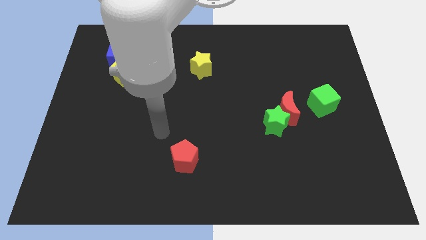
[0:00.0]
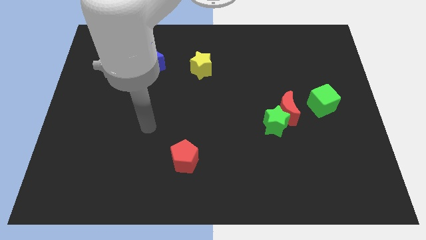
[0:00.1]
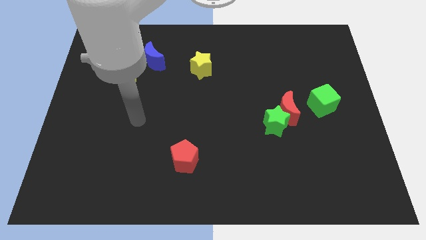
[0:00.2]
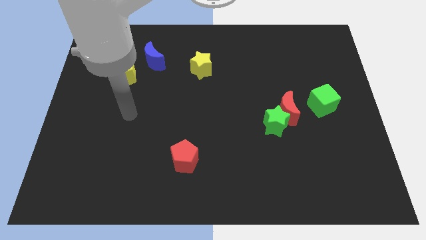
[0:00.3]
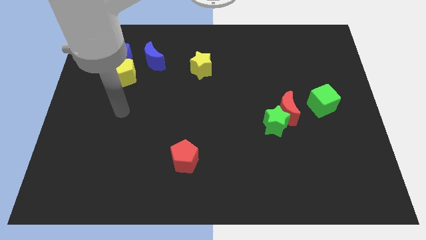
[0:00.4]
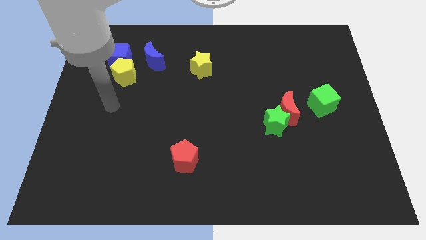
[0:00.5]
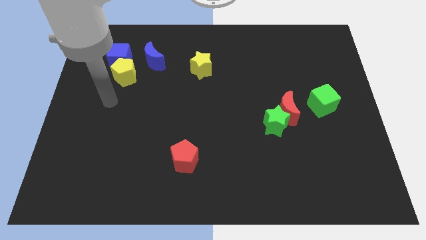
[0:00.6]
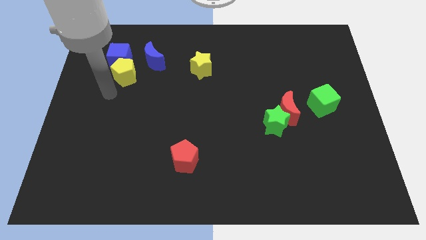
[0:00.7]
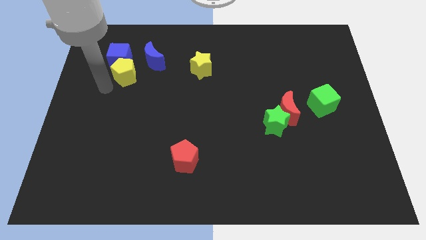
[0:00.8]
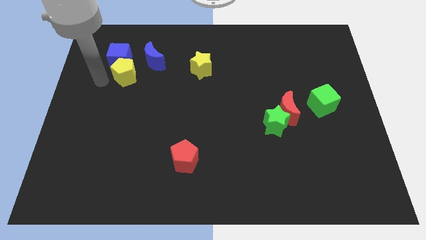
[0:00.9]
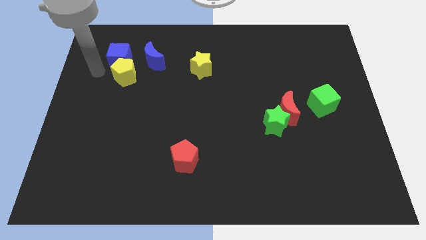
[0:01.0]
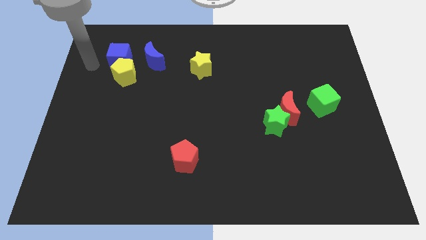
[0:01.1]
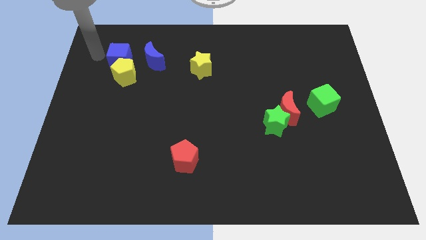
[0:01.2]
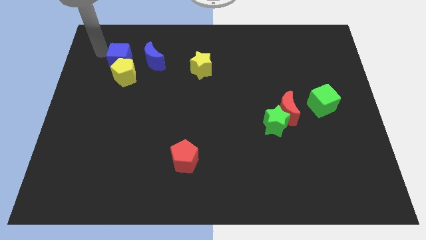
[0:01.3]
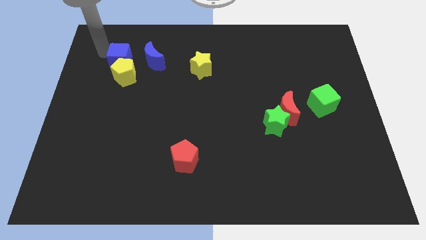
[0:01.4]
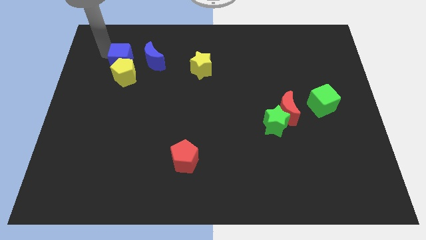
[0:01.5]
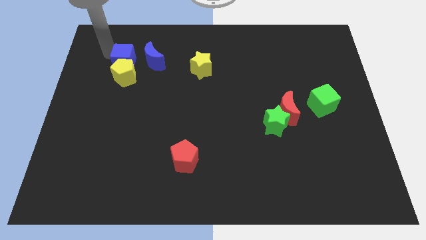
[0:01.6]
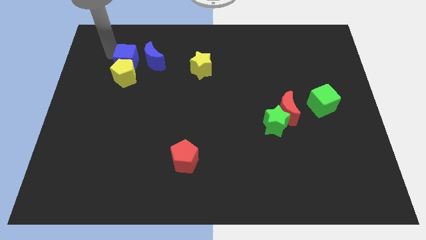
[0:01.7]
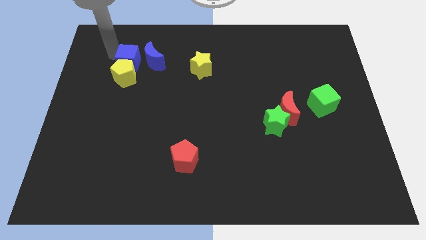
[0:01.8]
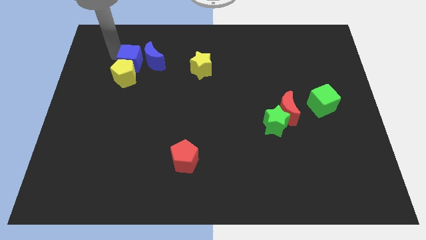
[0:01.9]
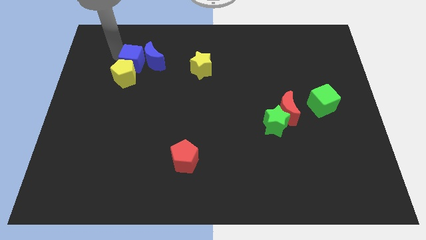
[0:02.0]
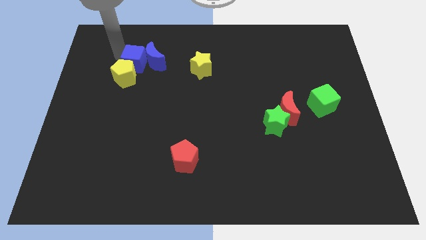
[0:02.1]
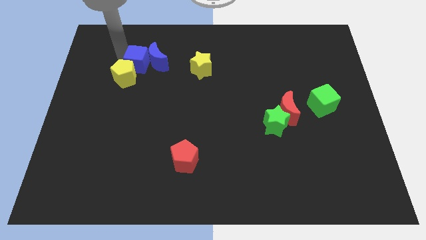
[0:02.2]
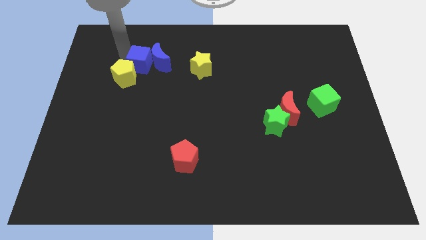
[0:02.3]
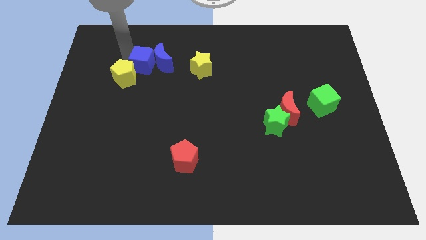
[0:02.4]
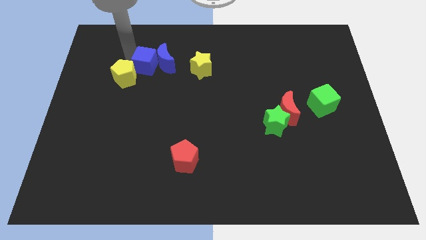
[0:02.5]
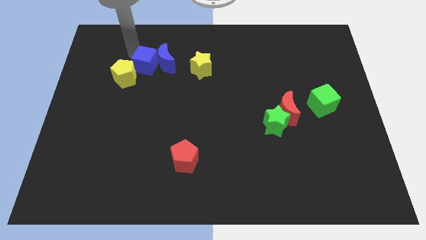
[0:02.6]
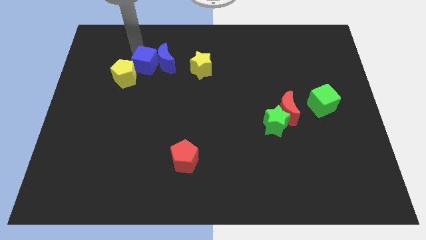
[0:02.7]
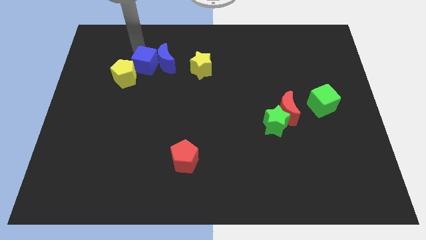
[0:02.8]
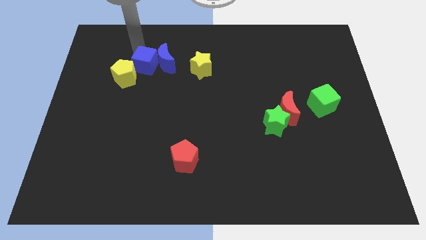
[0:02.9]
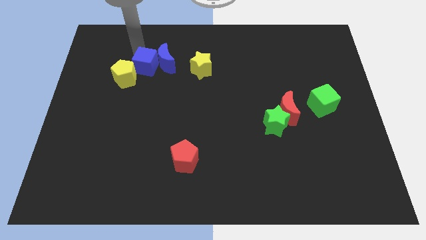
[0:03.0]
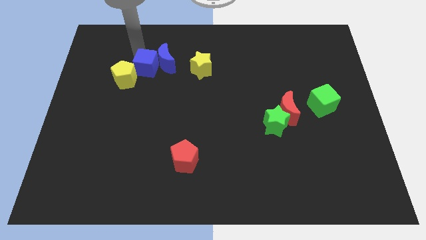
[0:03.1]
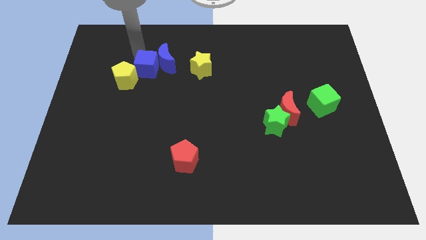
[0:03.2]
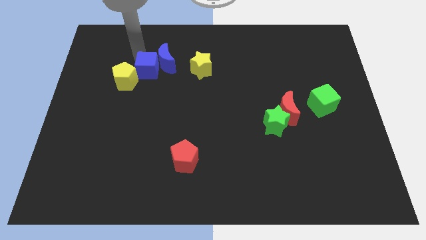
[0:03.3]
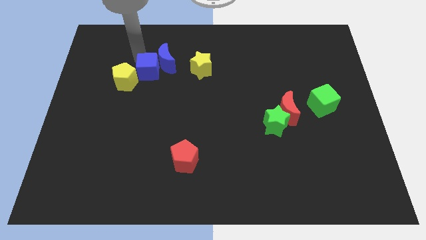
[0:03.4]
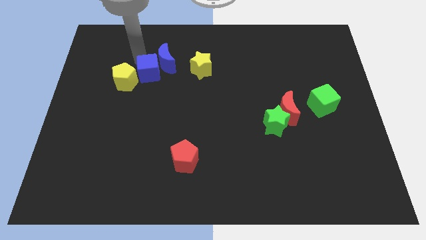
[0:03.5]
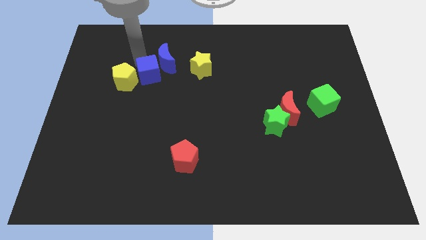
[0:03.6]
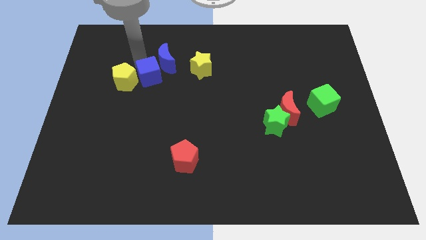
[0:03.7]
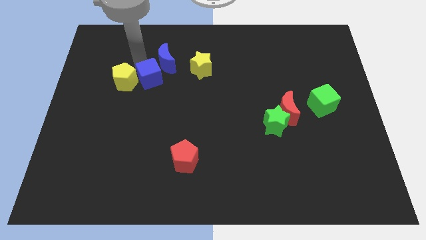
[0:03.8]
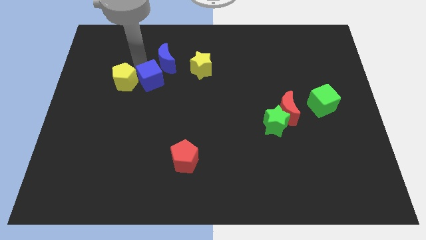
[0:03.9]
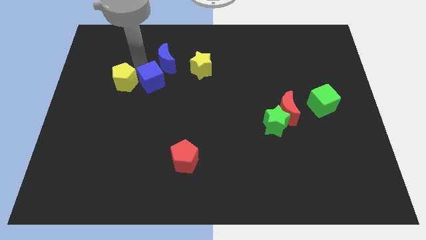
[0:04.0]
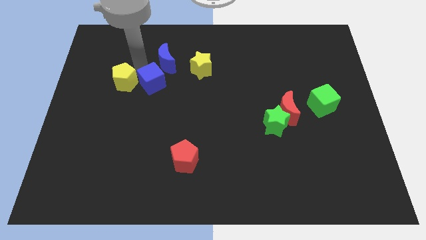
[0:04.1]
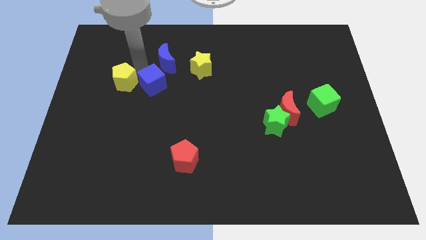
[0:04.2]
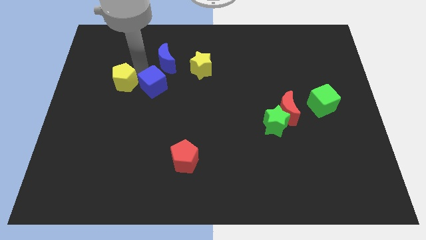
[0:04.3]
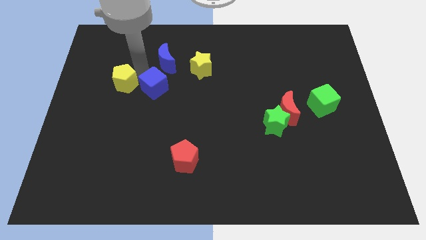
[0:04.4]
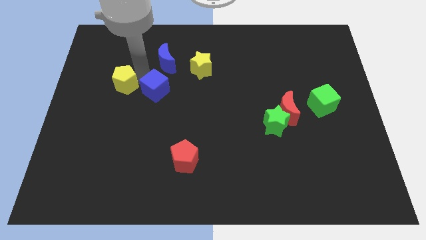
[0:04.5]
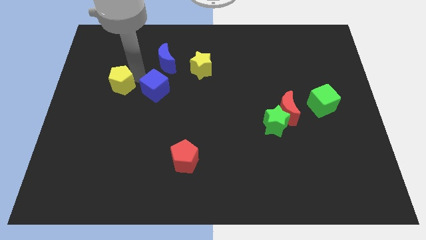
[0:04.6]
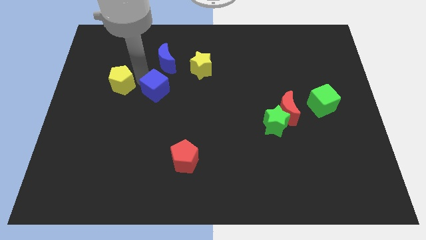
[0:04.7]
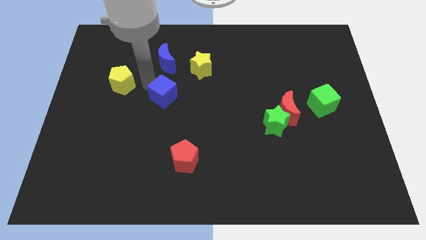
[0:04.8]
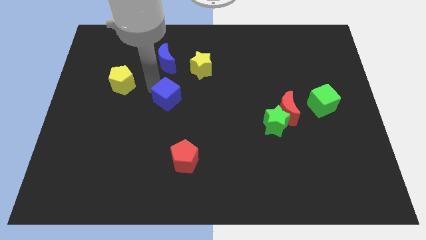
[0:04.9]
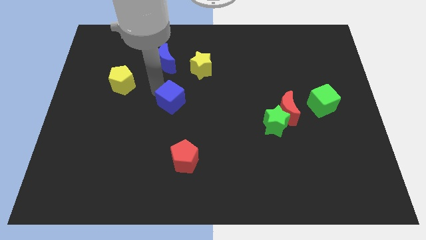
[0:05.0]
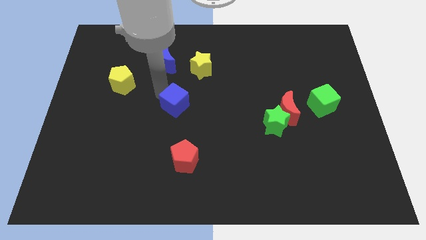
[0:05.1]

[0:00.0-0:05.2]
slide the blue cube to the top of the red pentagon

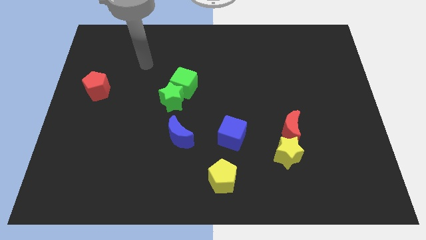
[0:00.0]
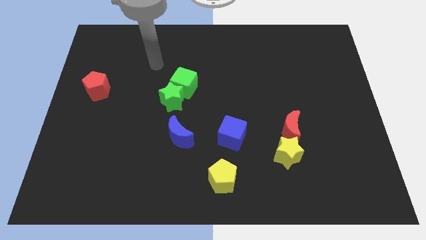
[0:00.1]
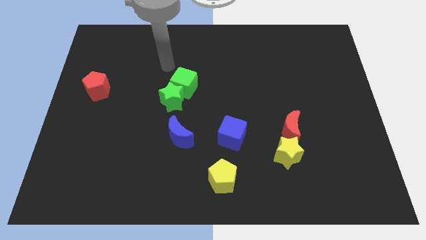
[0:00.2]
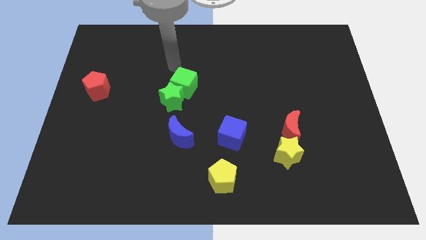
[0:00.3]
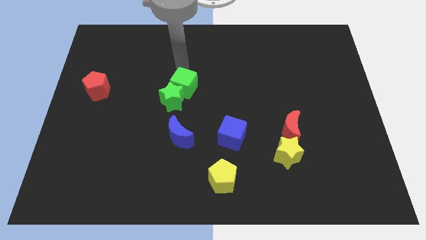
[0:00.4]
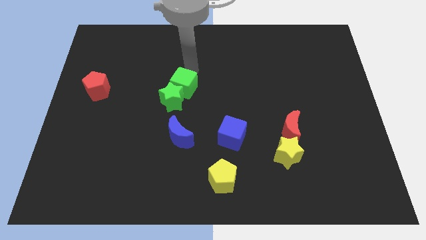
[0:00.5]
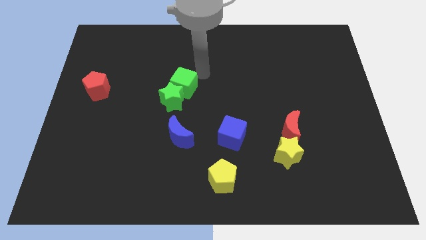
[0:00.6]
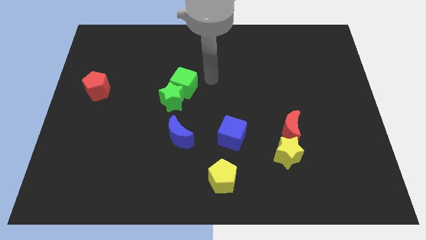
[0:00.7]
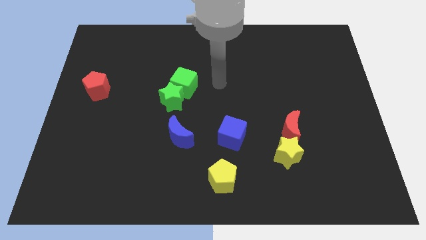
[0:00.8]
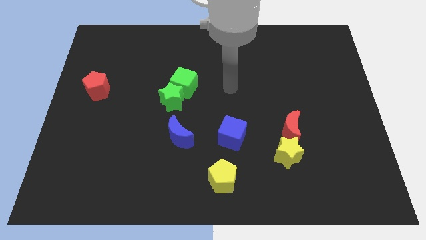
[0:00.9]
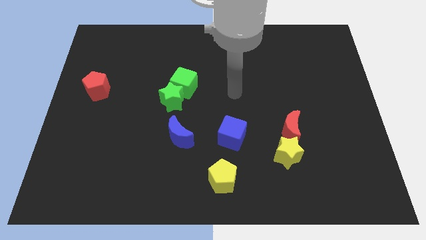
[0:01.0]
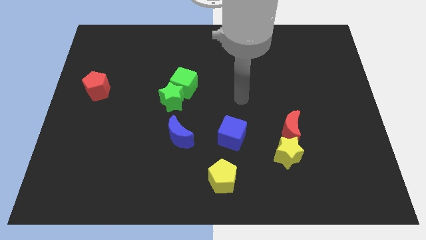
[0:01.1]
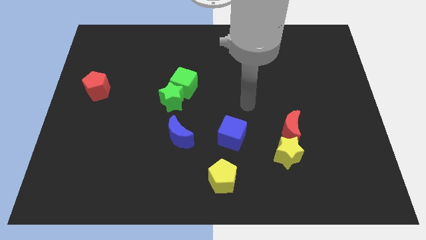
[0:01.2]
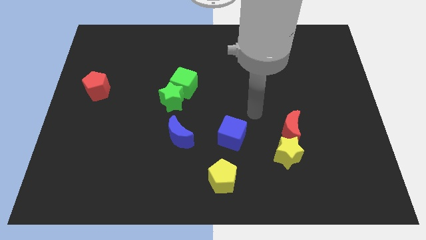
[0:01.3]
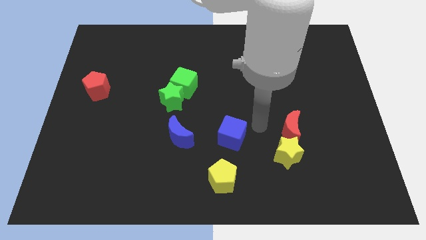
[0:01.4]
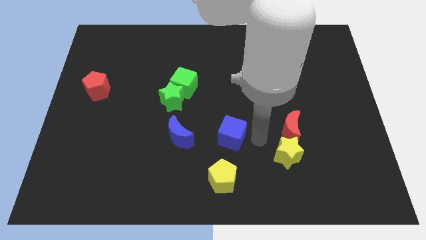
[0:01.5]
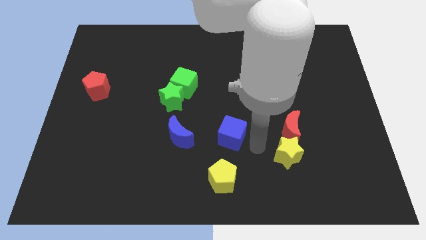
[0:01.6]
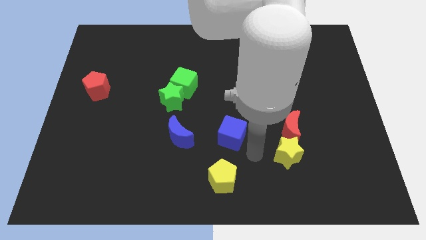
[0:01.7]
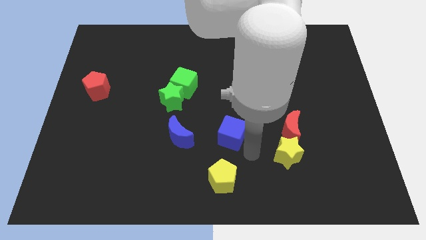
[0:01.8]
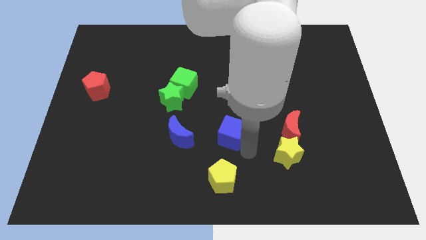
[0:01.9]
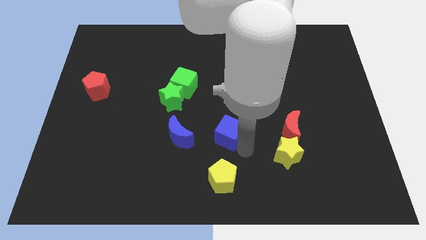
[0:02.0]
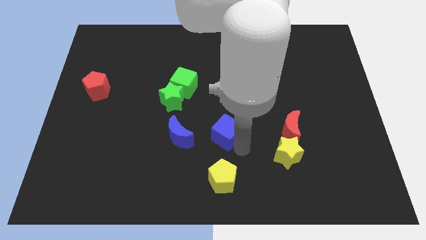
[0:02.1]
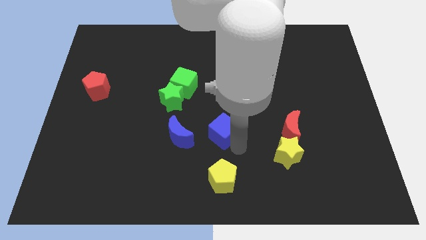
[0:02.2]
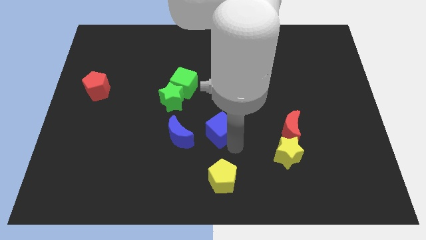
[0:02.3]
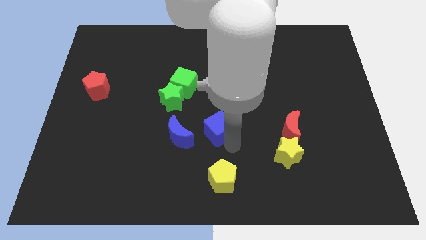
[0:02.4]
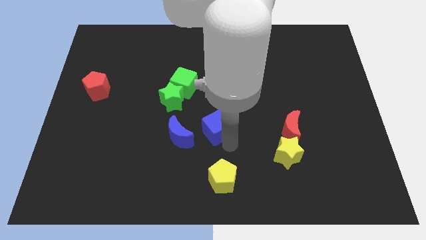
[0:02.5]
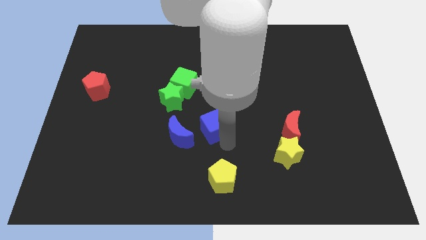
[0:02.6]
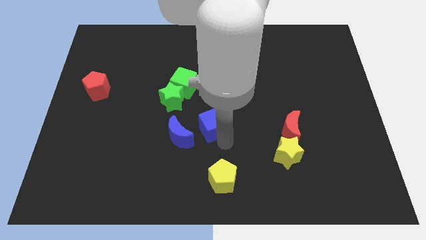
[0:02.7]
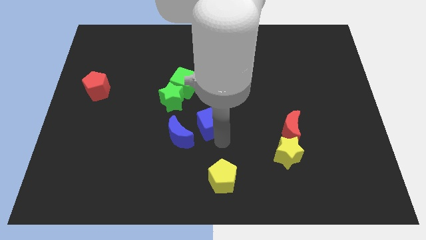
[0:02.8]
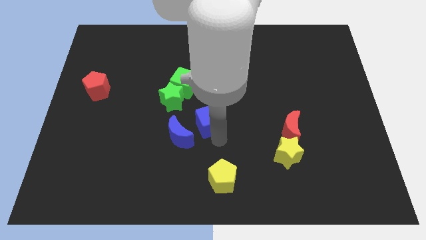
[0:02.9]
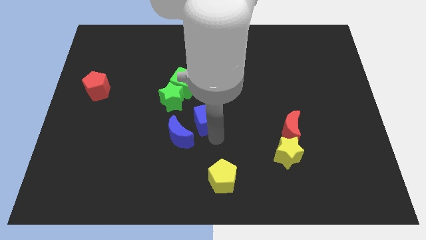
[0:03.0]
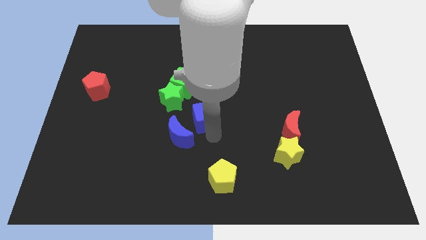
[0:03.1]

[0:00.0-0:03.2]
slide the blue cube to the bottom right side of the green cube
